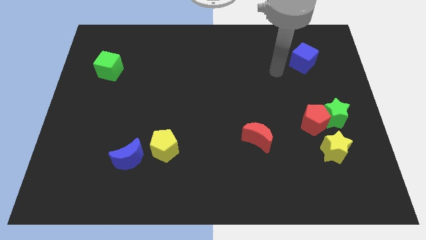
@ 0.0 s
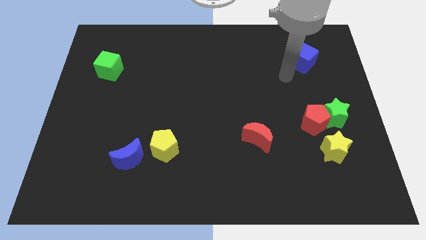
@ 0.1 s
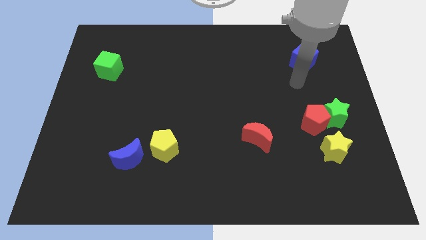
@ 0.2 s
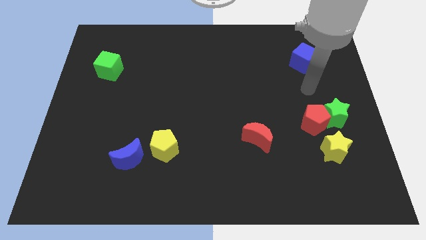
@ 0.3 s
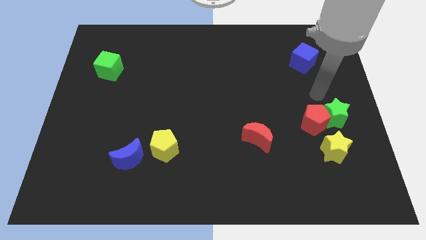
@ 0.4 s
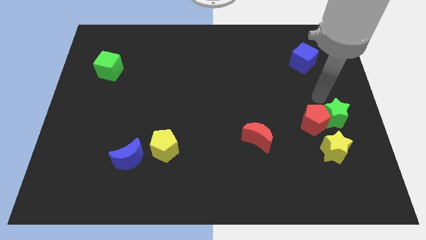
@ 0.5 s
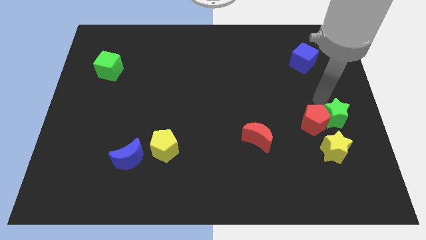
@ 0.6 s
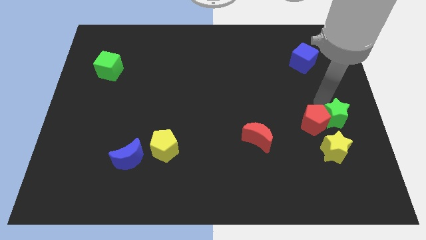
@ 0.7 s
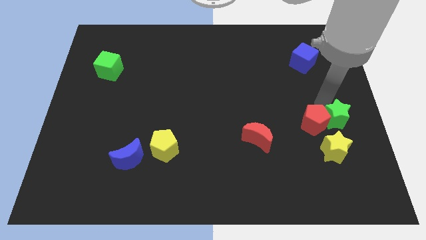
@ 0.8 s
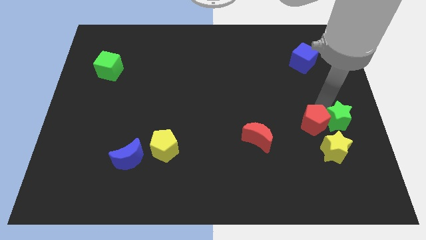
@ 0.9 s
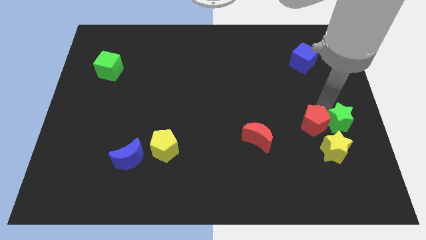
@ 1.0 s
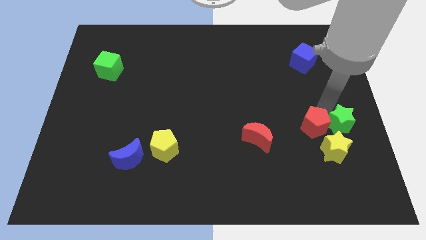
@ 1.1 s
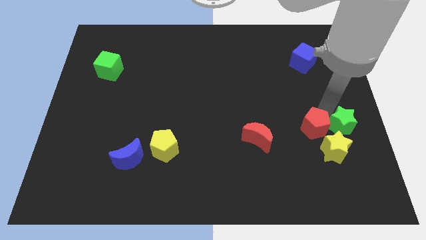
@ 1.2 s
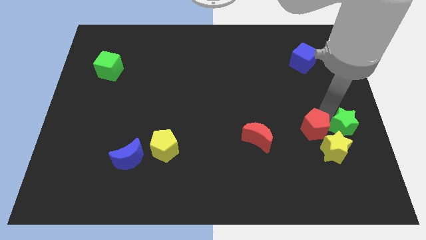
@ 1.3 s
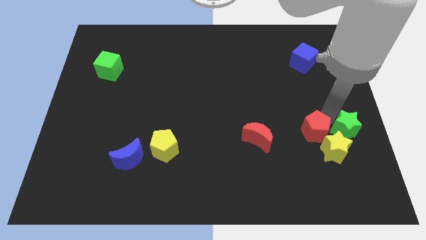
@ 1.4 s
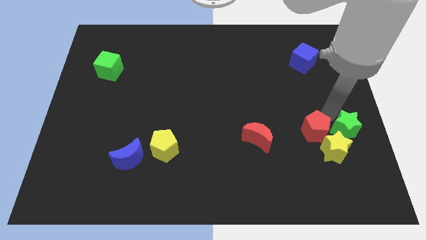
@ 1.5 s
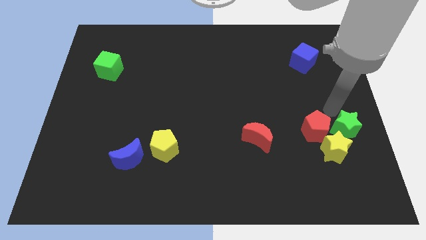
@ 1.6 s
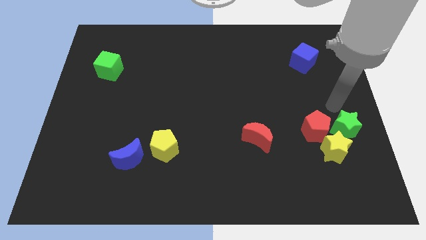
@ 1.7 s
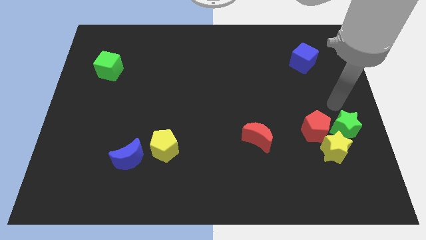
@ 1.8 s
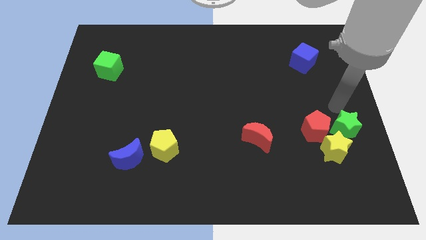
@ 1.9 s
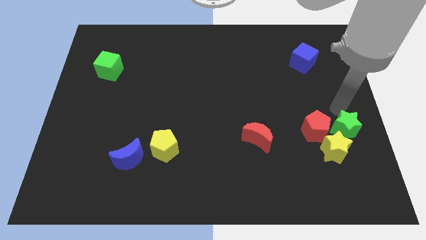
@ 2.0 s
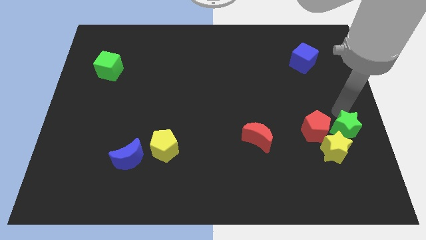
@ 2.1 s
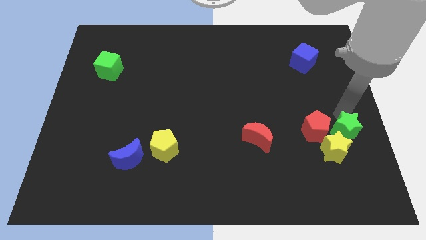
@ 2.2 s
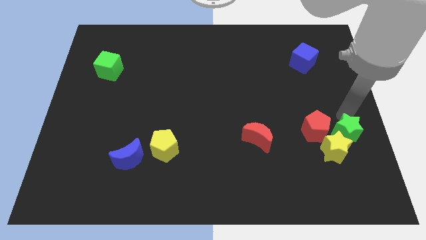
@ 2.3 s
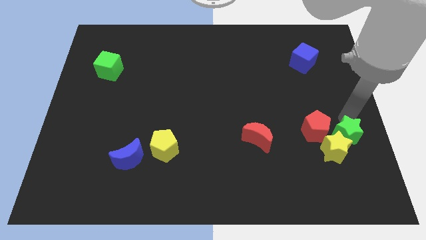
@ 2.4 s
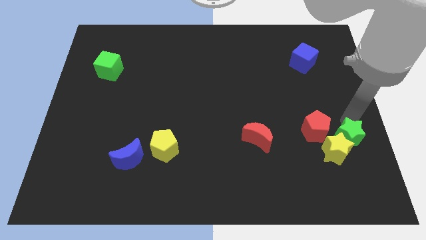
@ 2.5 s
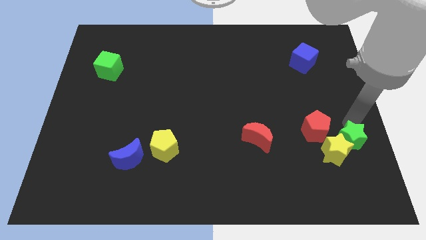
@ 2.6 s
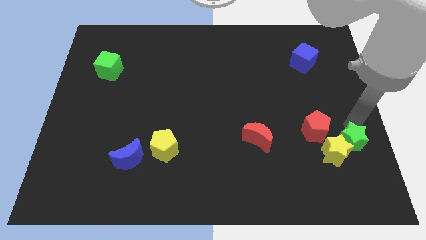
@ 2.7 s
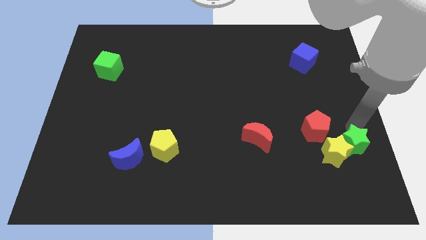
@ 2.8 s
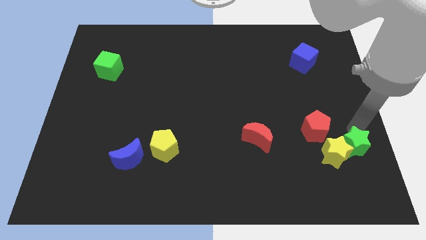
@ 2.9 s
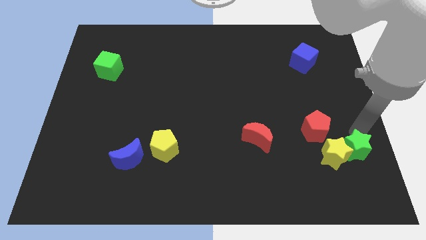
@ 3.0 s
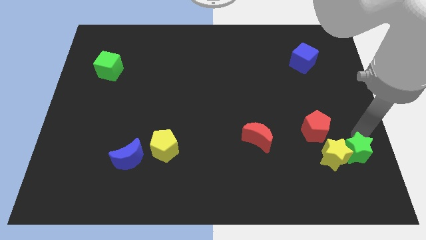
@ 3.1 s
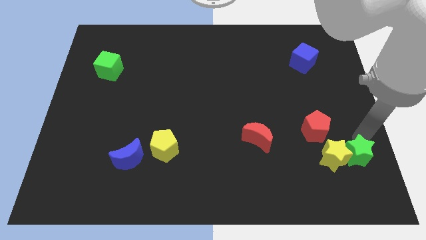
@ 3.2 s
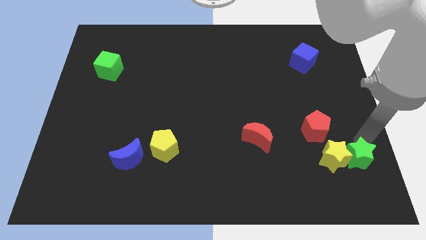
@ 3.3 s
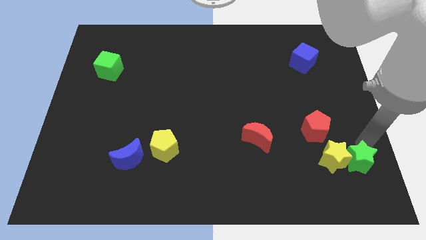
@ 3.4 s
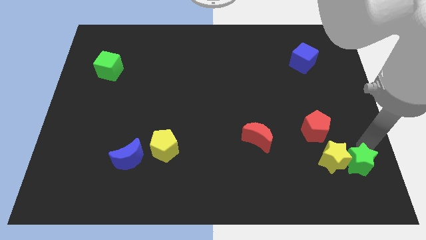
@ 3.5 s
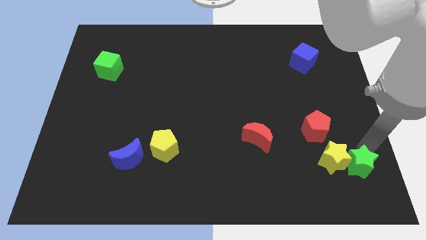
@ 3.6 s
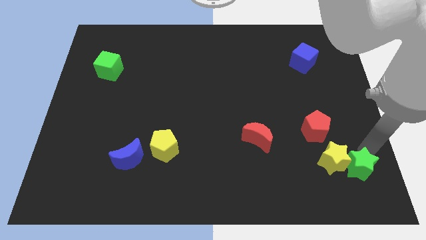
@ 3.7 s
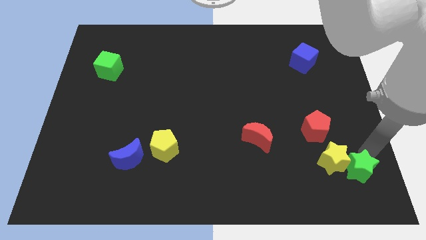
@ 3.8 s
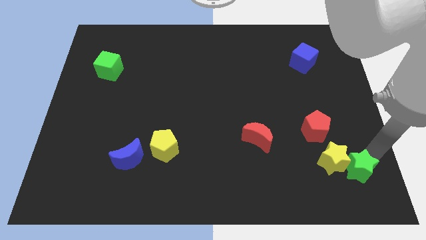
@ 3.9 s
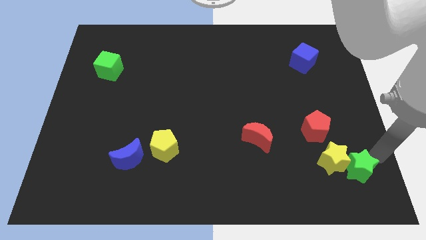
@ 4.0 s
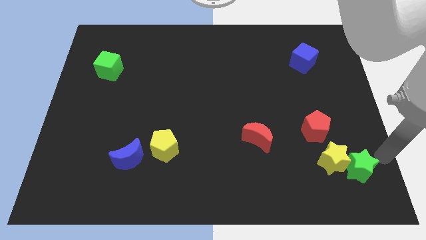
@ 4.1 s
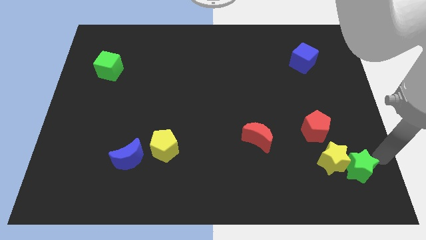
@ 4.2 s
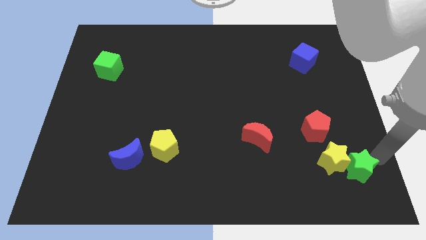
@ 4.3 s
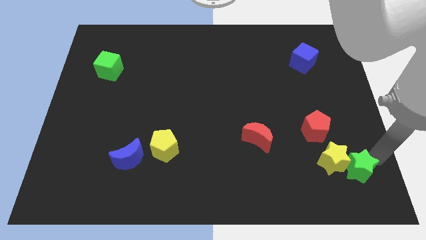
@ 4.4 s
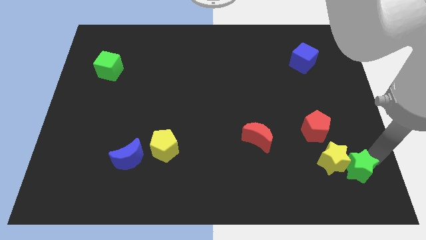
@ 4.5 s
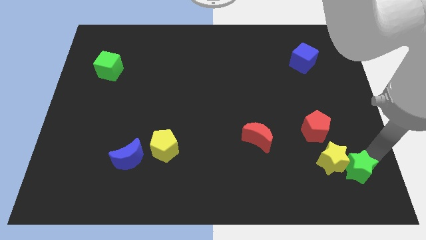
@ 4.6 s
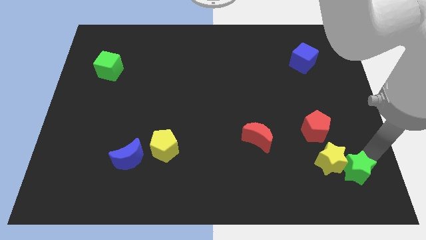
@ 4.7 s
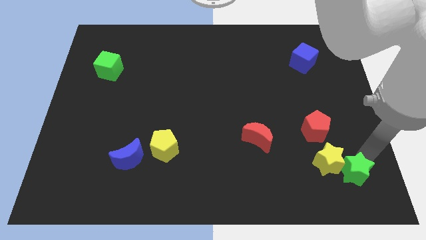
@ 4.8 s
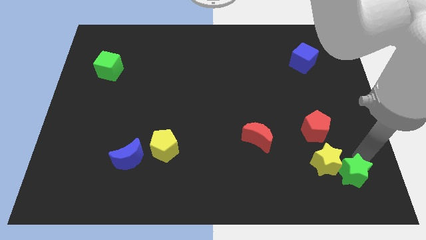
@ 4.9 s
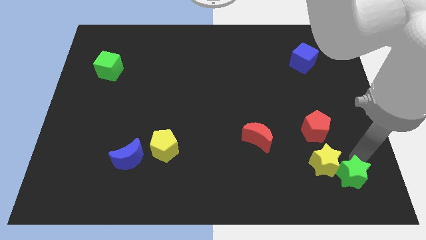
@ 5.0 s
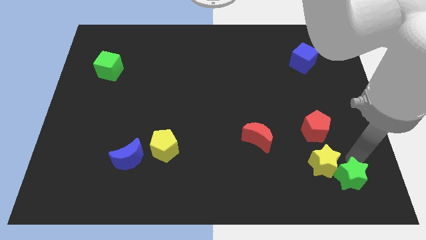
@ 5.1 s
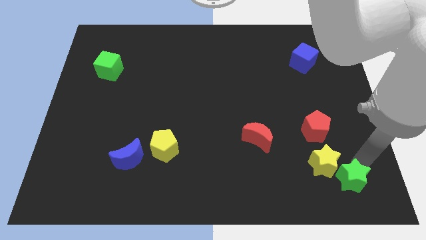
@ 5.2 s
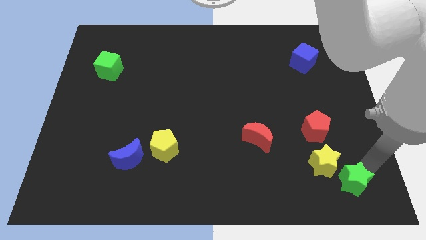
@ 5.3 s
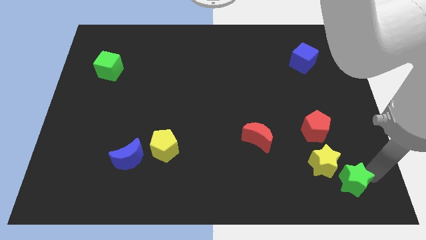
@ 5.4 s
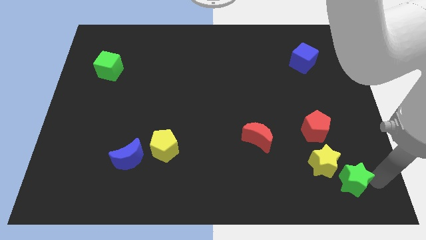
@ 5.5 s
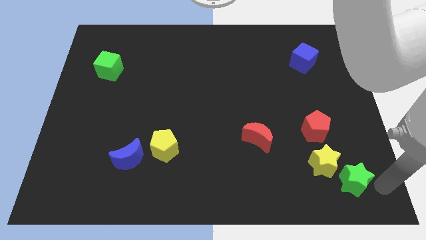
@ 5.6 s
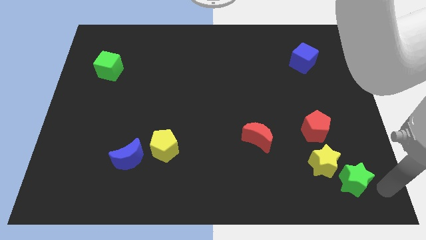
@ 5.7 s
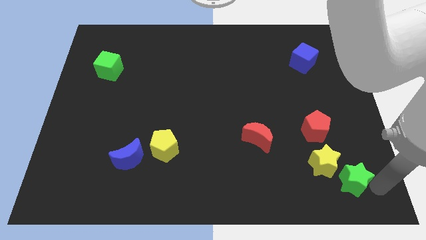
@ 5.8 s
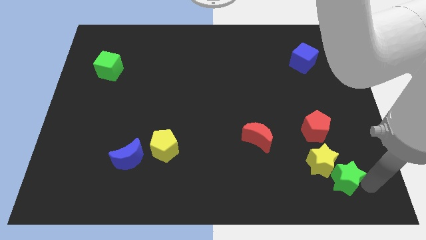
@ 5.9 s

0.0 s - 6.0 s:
push the green star to the bottom side of the red pentagon

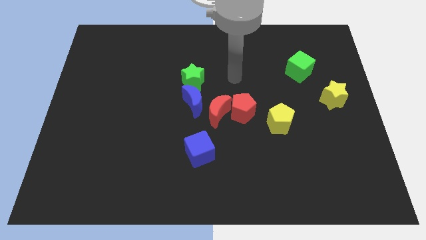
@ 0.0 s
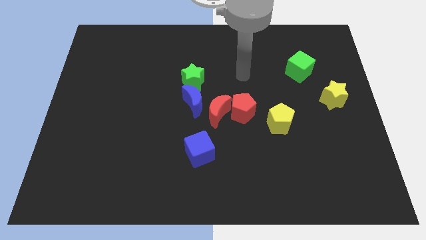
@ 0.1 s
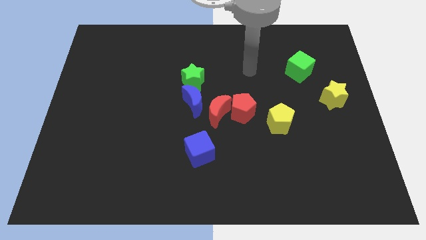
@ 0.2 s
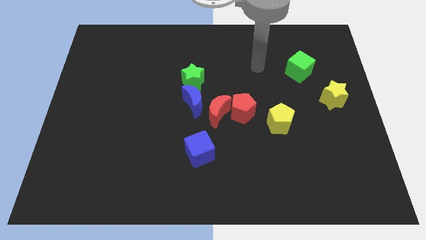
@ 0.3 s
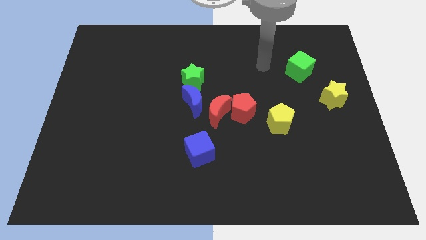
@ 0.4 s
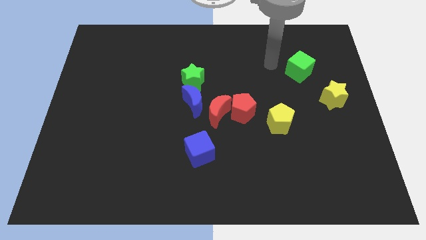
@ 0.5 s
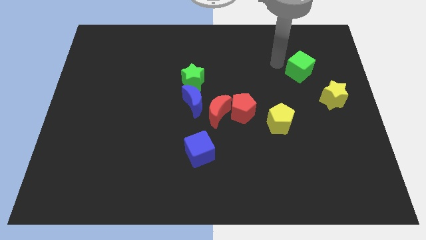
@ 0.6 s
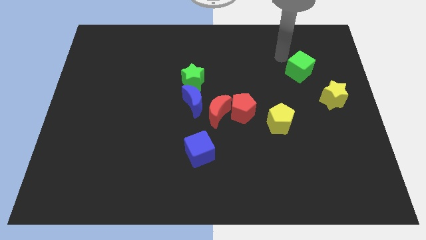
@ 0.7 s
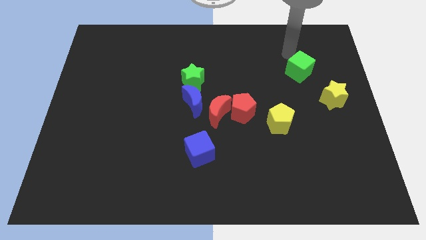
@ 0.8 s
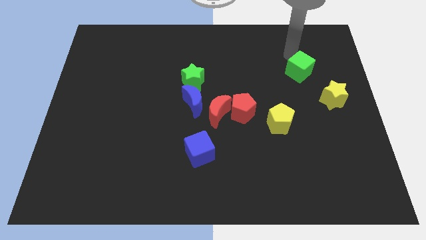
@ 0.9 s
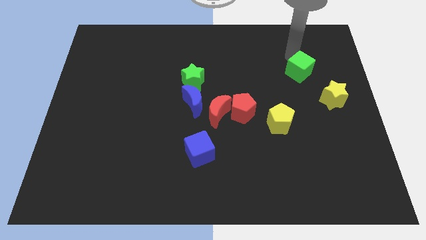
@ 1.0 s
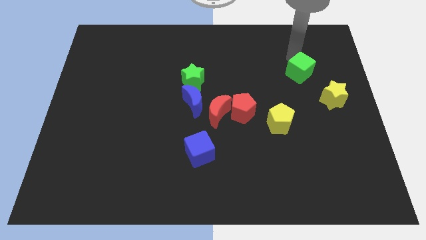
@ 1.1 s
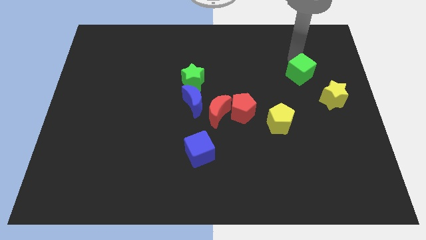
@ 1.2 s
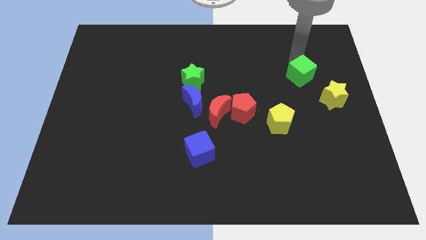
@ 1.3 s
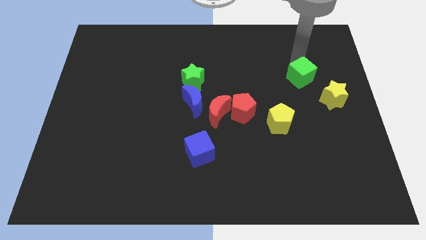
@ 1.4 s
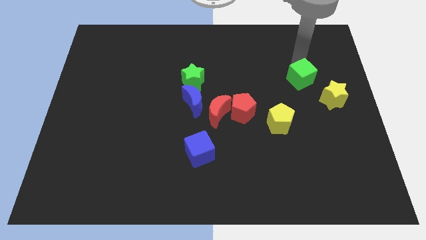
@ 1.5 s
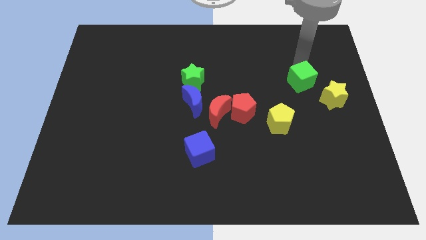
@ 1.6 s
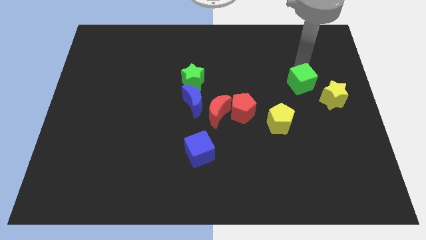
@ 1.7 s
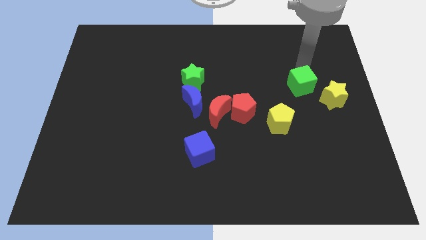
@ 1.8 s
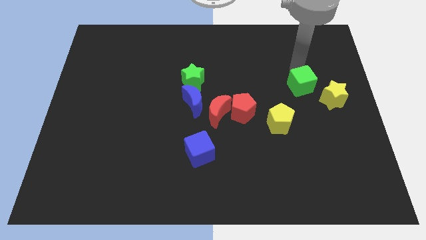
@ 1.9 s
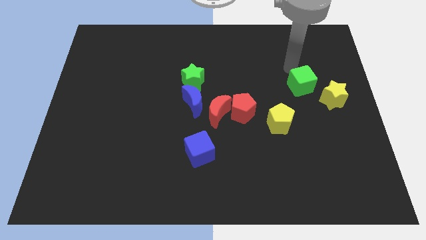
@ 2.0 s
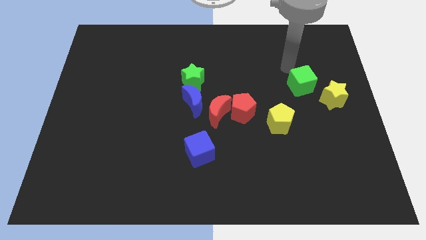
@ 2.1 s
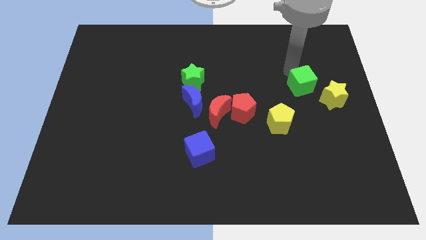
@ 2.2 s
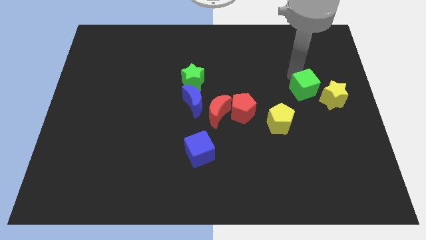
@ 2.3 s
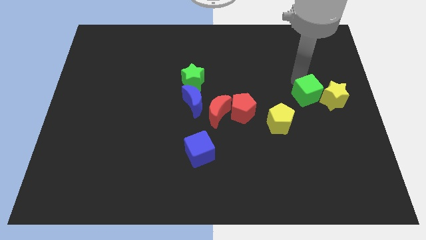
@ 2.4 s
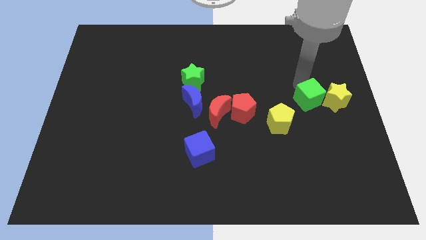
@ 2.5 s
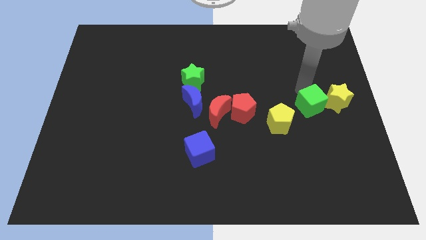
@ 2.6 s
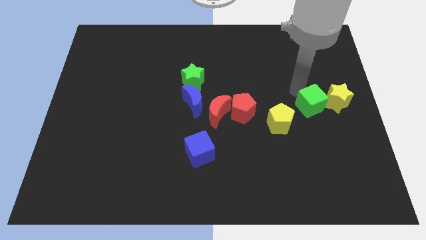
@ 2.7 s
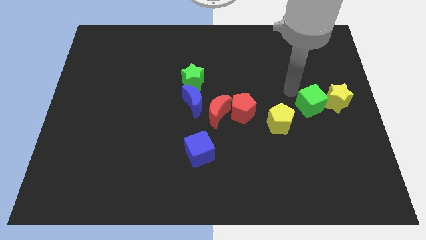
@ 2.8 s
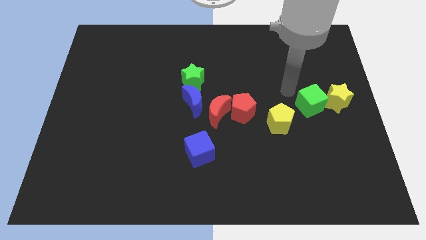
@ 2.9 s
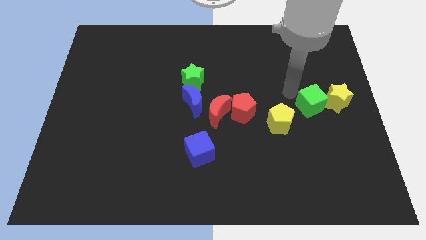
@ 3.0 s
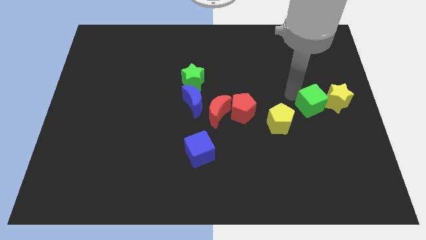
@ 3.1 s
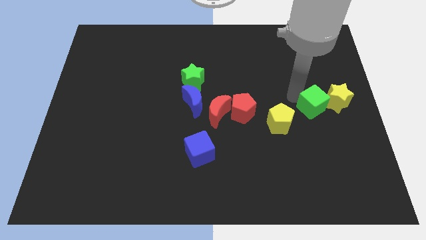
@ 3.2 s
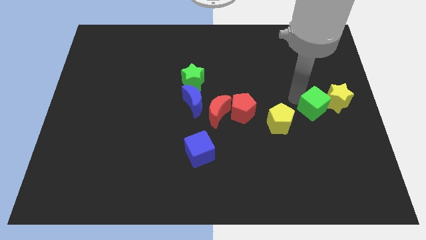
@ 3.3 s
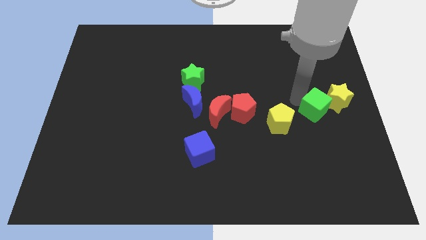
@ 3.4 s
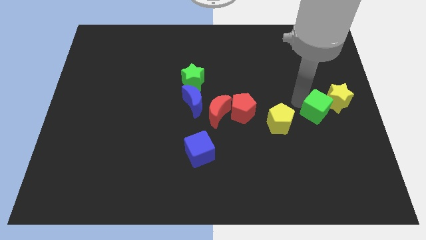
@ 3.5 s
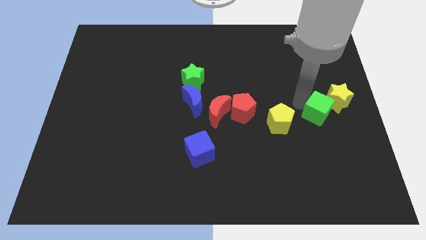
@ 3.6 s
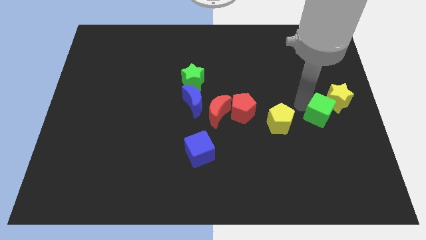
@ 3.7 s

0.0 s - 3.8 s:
move the green cube to the bottom side of the yellow star
